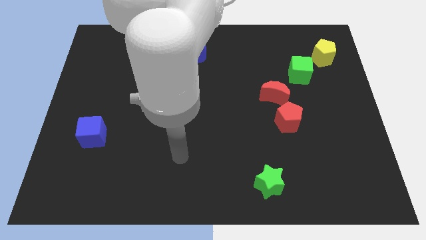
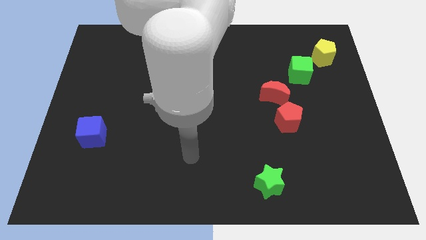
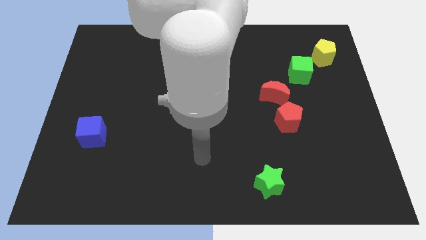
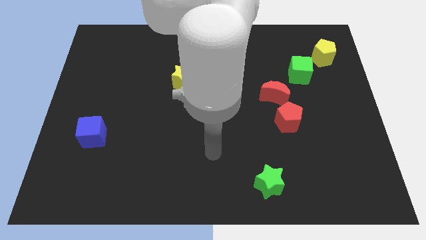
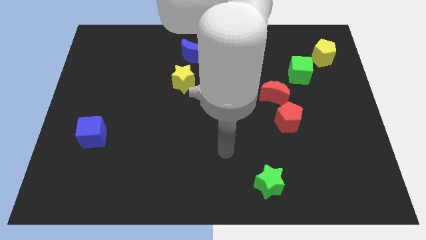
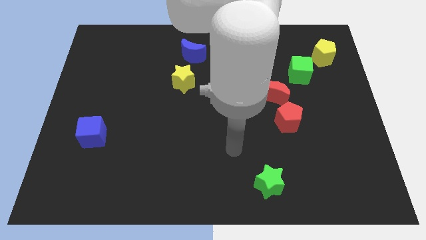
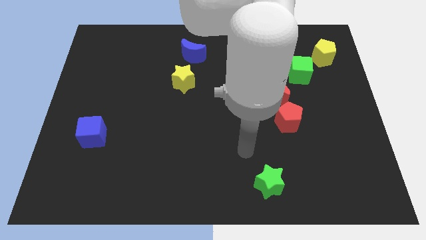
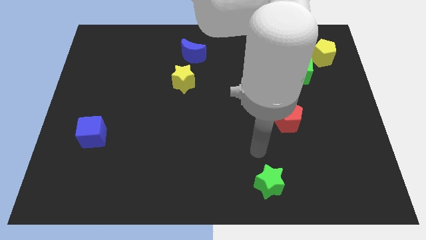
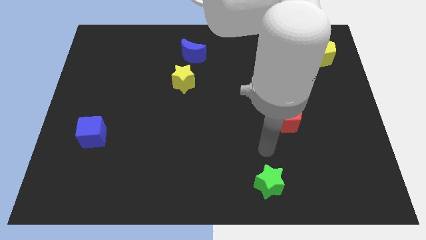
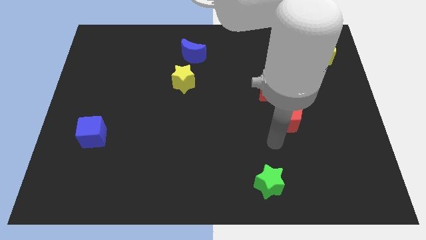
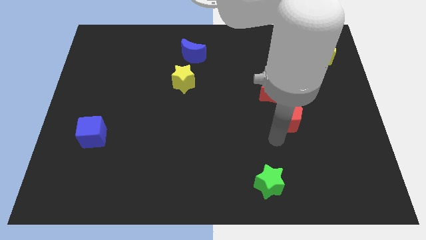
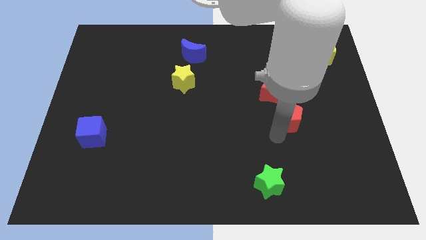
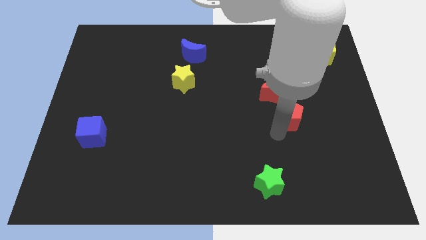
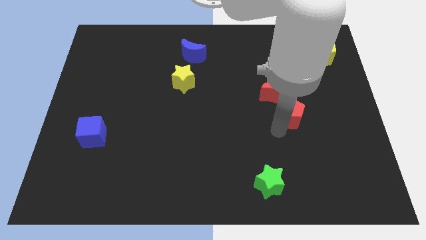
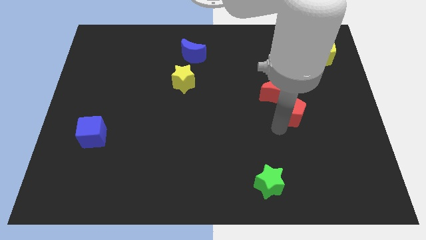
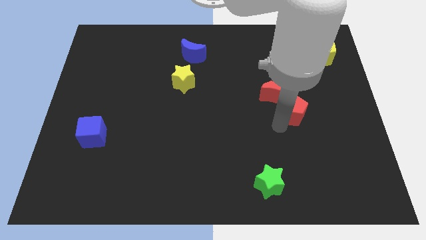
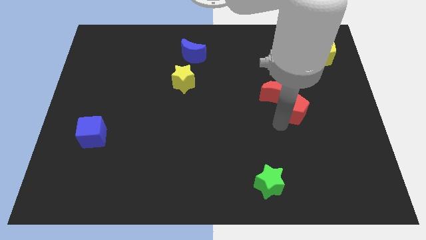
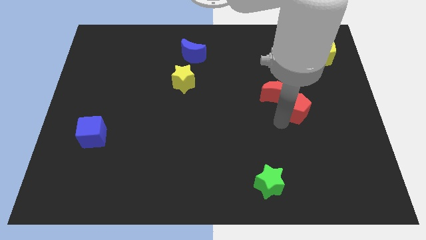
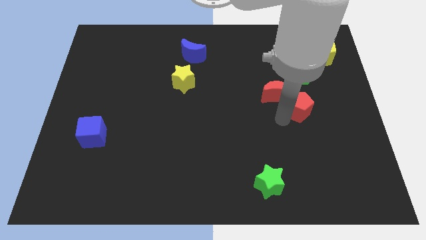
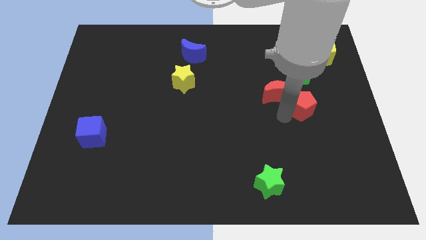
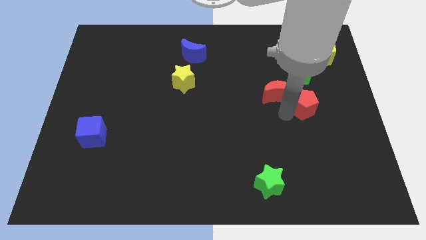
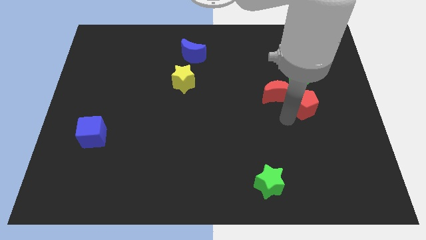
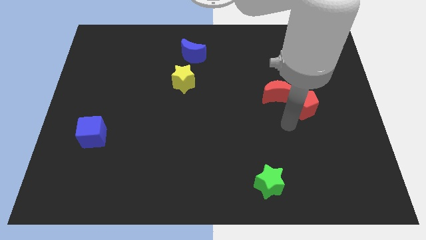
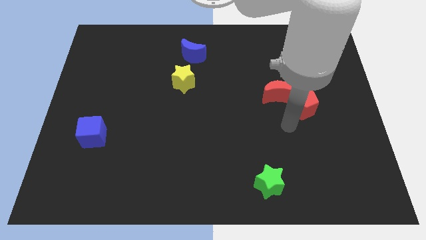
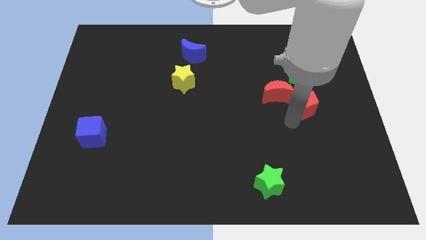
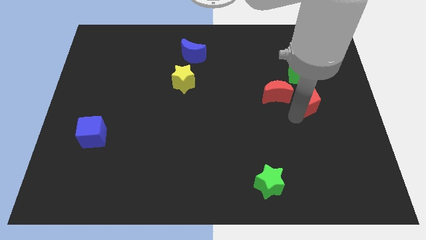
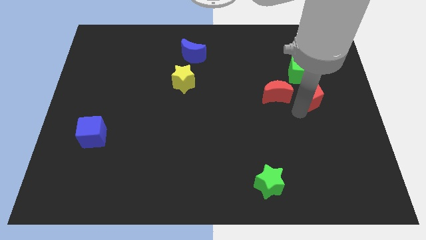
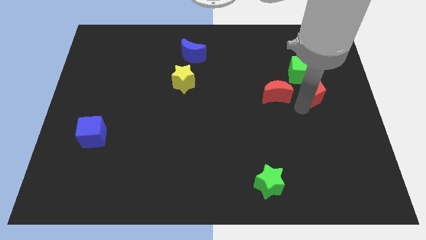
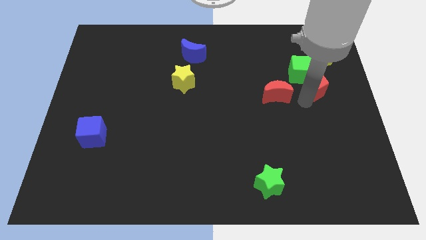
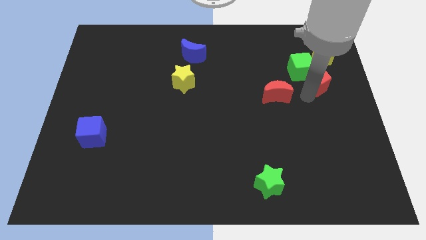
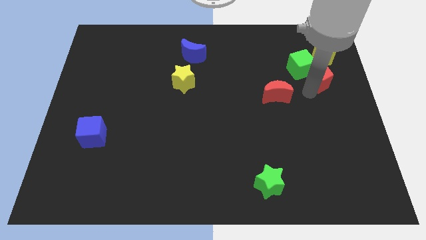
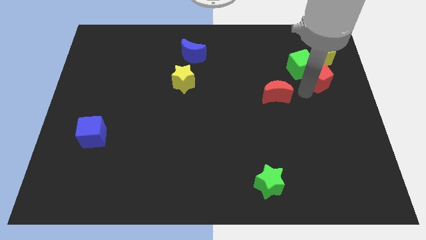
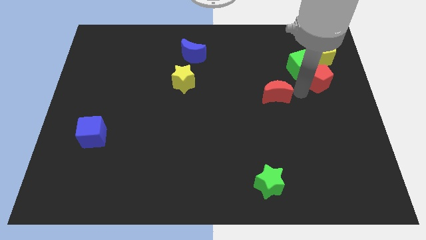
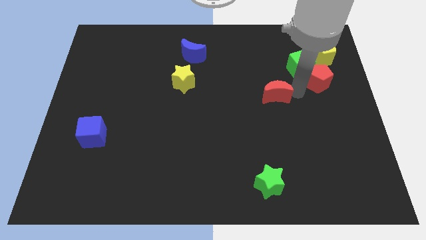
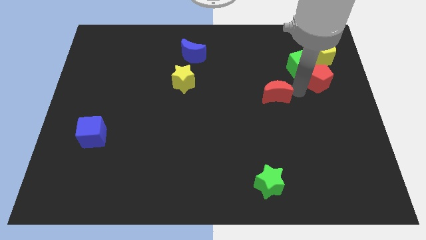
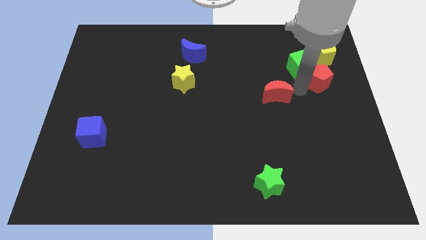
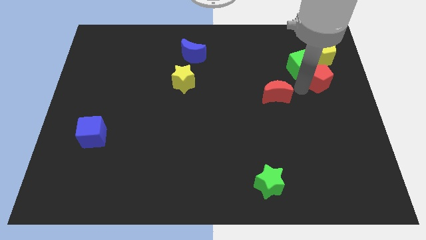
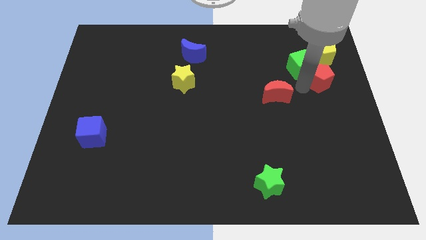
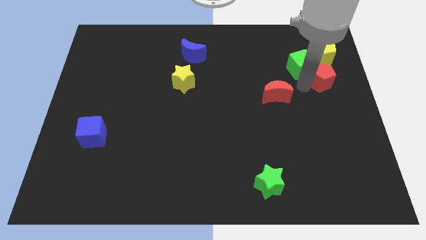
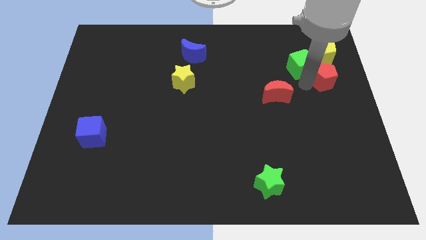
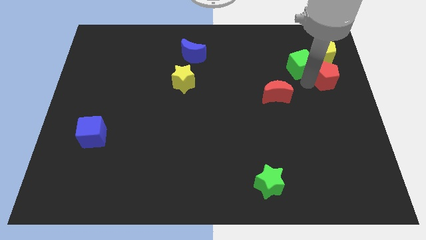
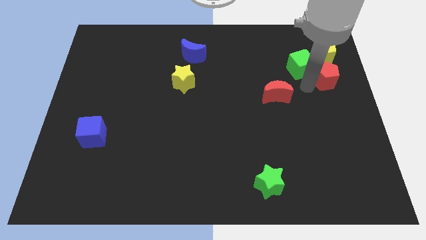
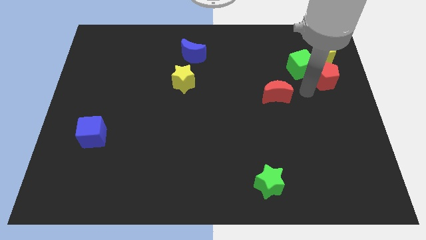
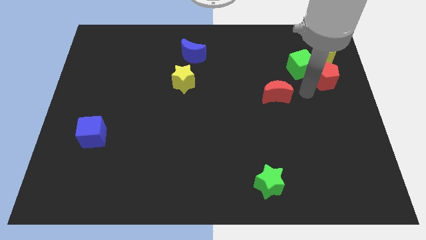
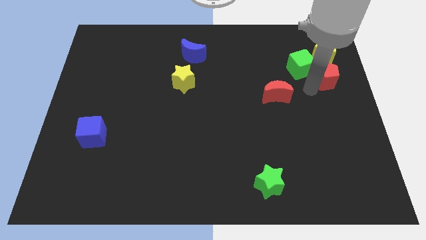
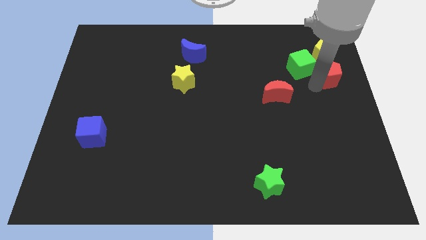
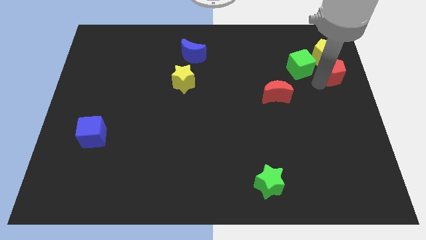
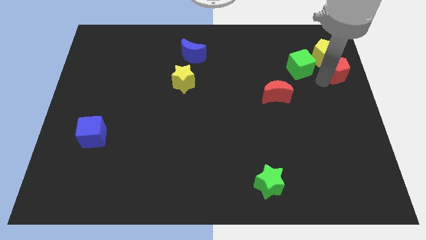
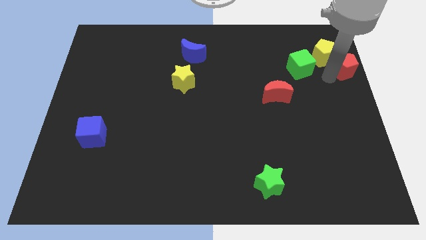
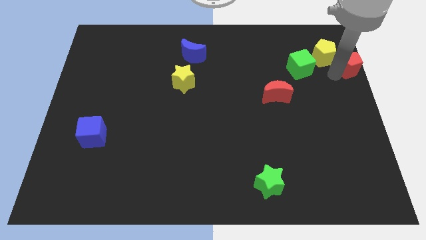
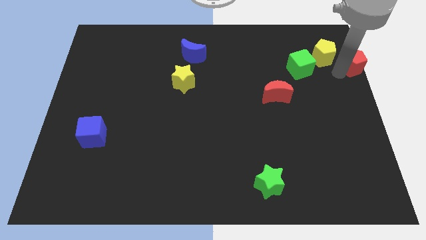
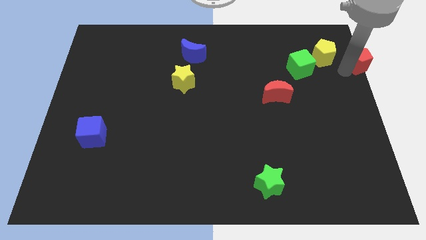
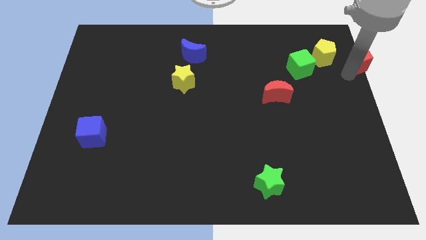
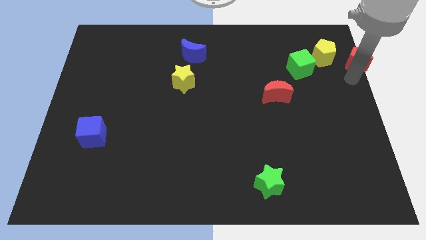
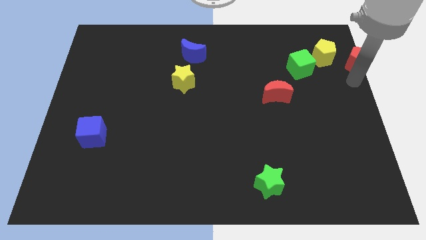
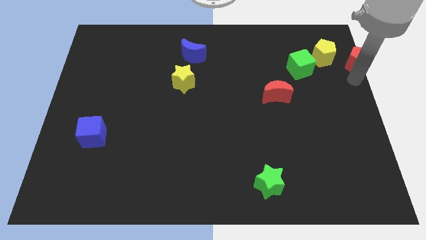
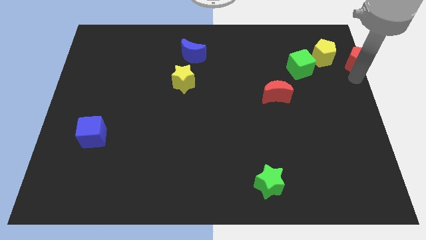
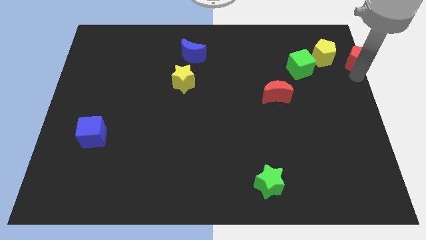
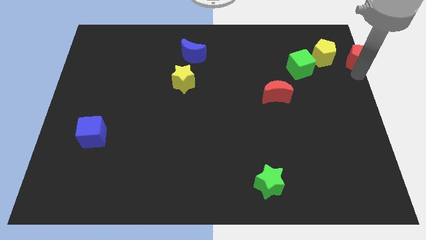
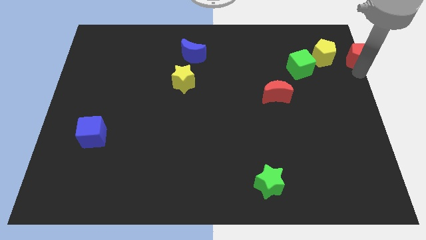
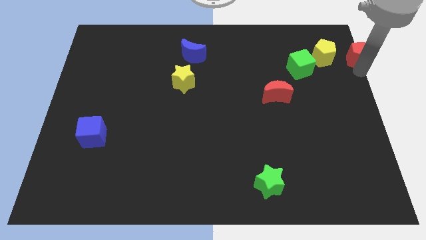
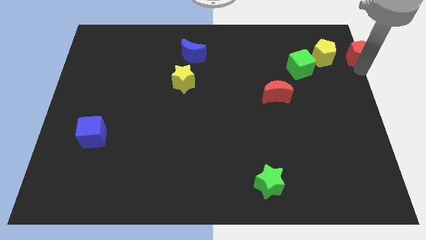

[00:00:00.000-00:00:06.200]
slide the red pentagon to the upper right corner

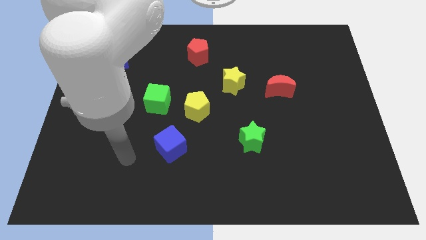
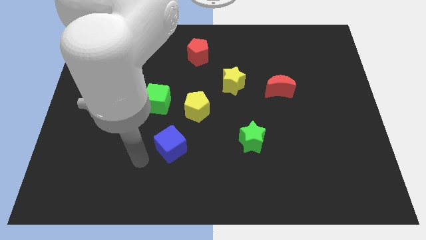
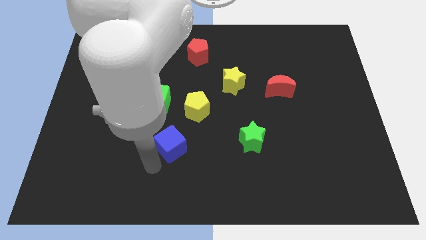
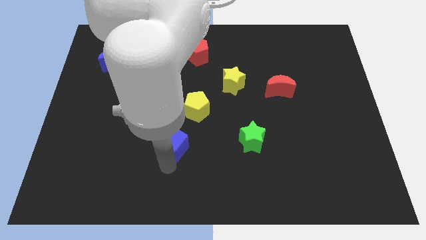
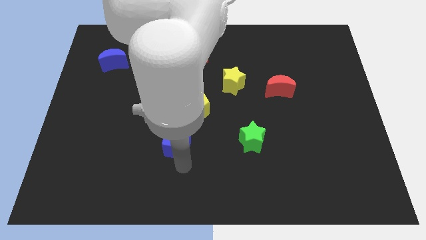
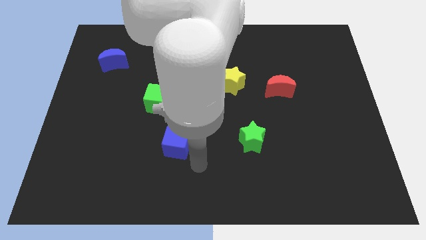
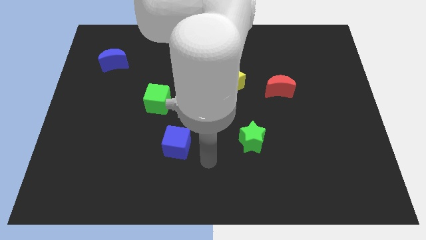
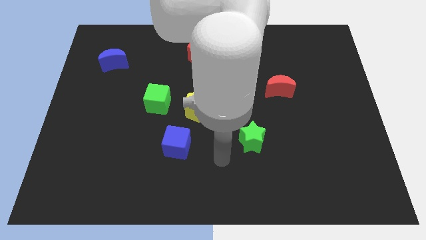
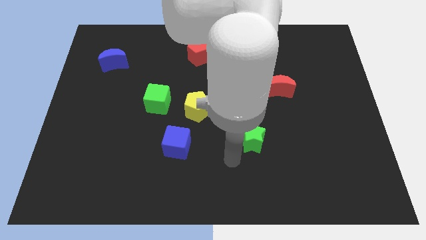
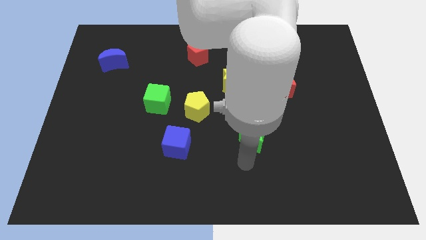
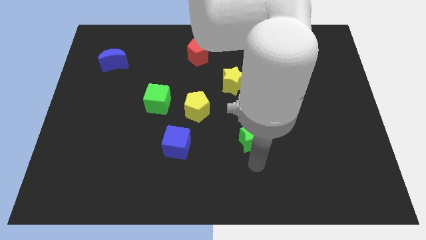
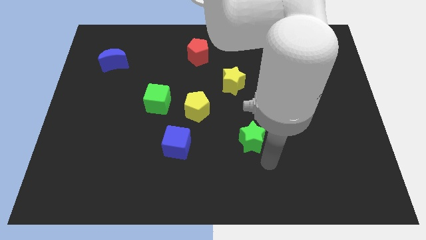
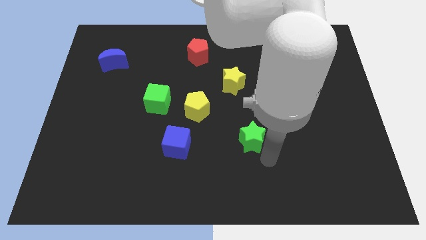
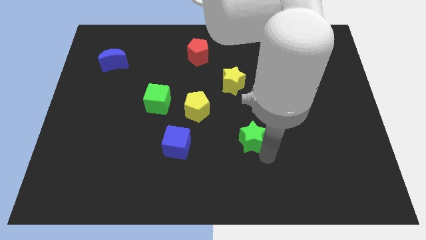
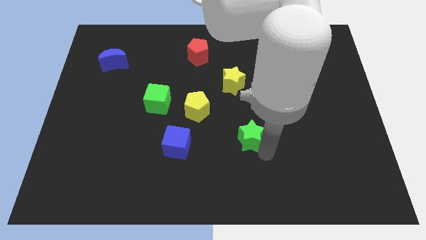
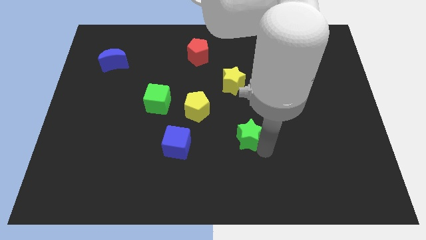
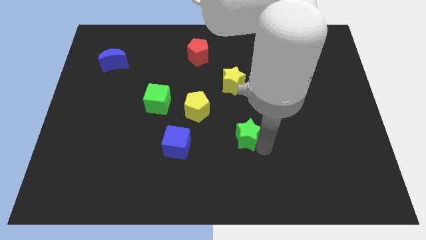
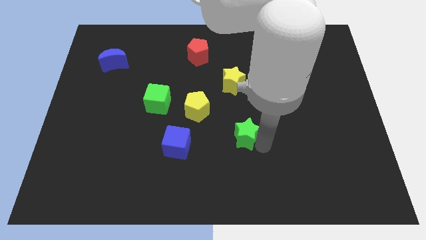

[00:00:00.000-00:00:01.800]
put the green star to the middle of the board
